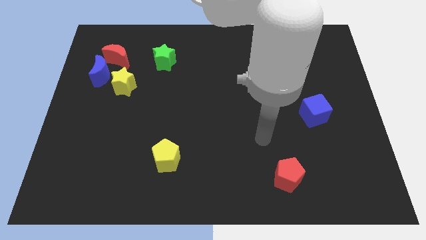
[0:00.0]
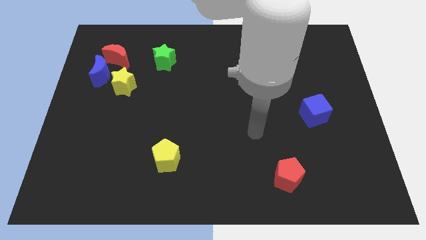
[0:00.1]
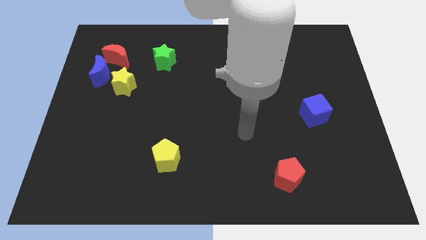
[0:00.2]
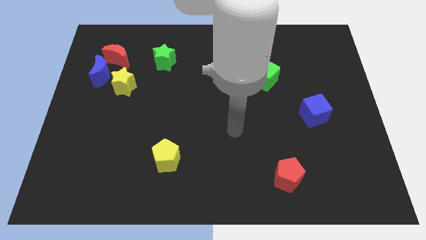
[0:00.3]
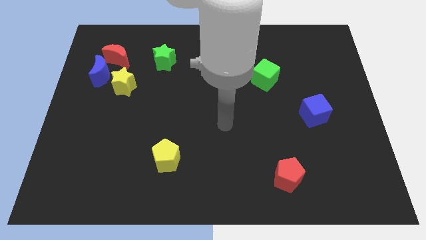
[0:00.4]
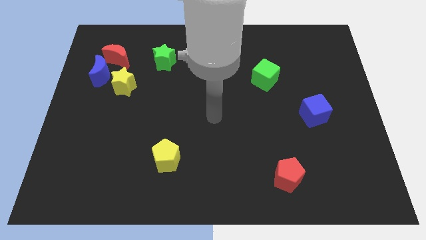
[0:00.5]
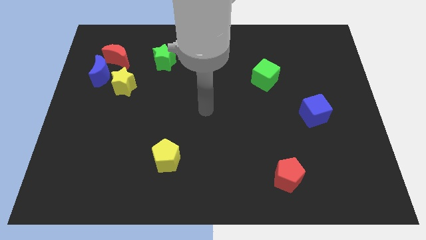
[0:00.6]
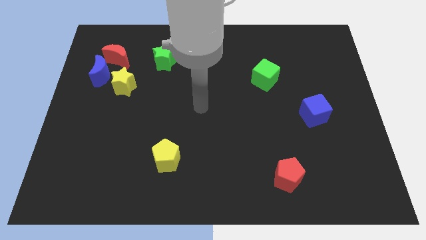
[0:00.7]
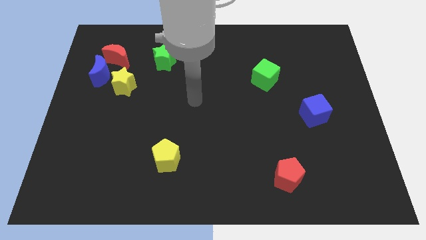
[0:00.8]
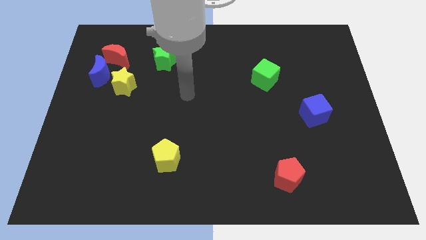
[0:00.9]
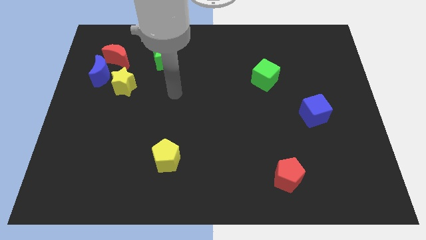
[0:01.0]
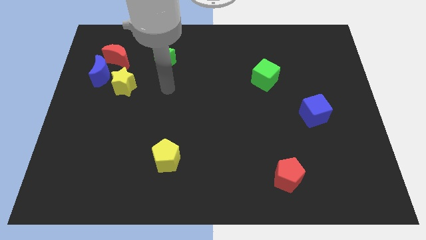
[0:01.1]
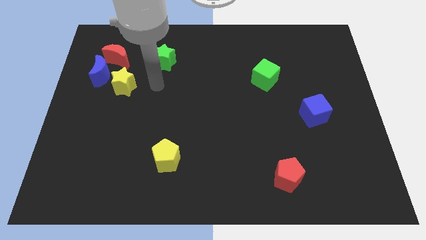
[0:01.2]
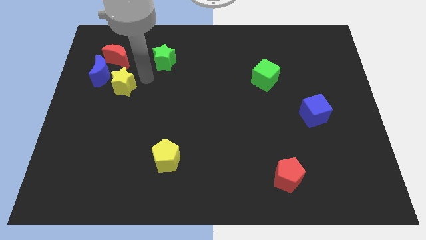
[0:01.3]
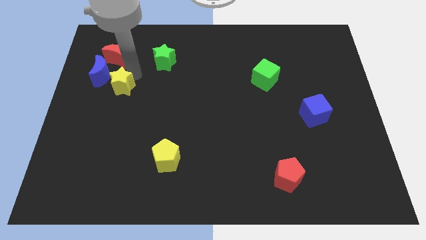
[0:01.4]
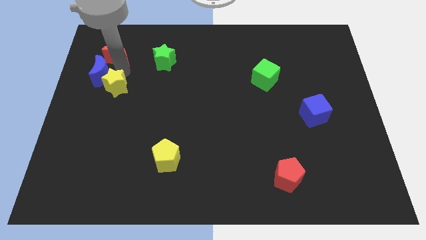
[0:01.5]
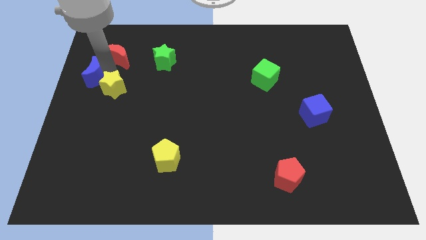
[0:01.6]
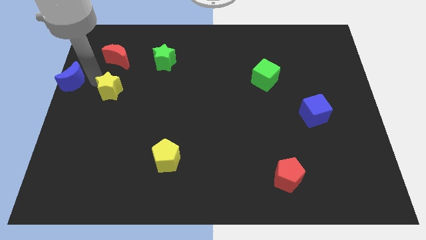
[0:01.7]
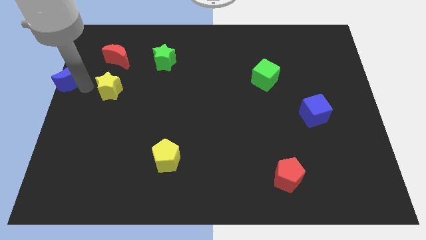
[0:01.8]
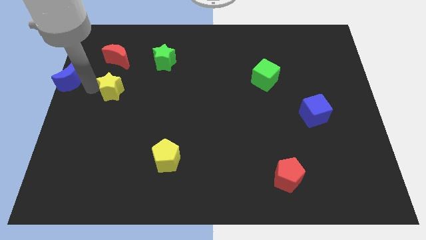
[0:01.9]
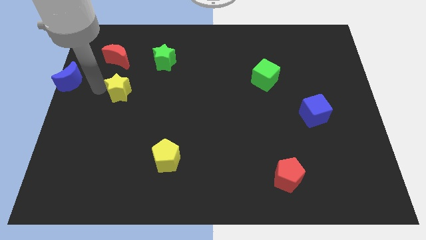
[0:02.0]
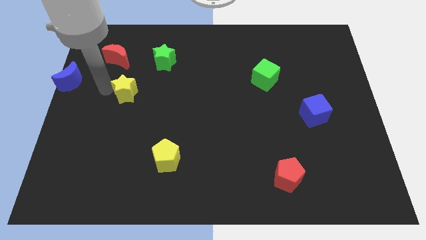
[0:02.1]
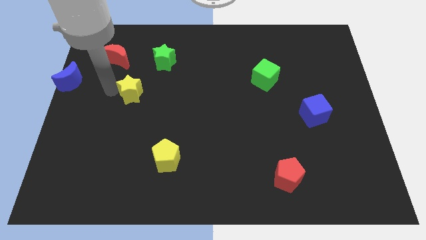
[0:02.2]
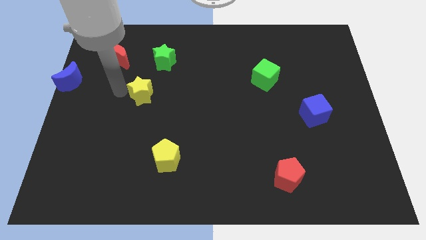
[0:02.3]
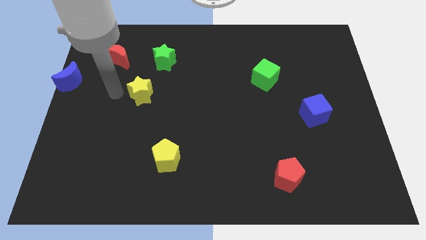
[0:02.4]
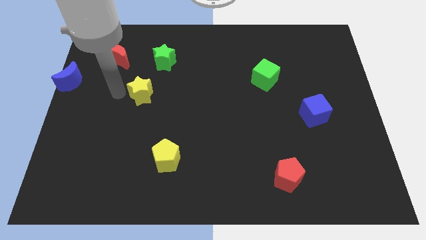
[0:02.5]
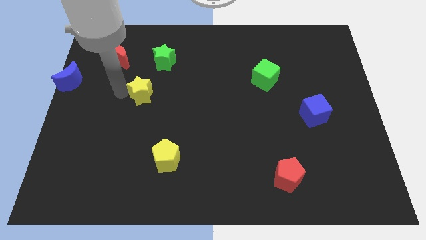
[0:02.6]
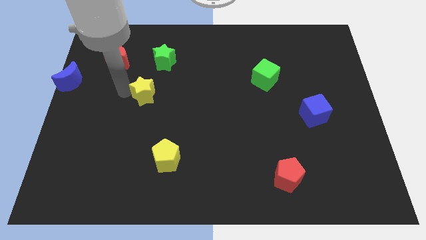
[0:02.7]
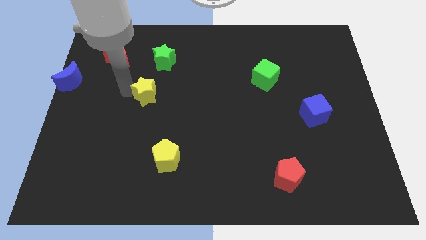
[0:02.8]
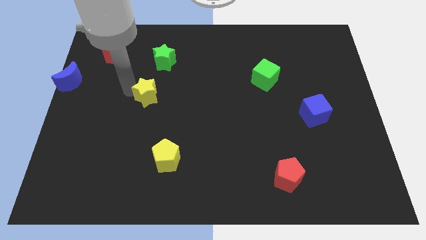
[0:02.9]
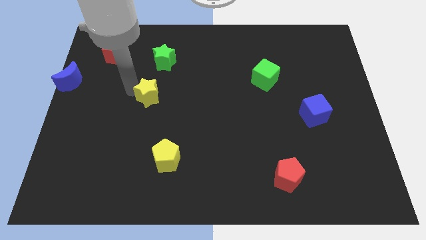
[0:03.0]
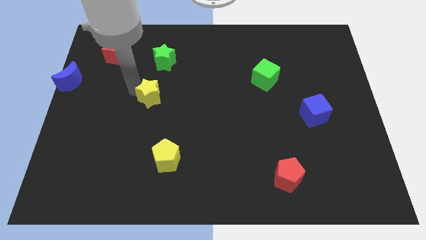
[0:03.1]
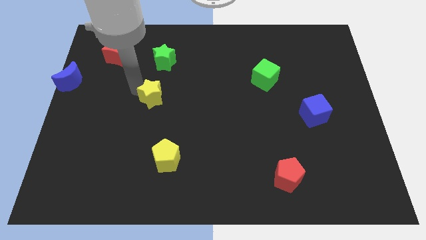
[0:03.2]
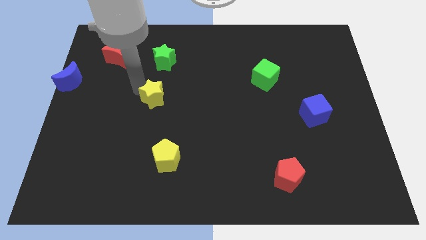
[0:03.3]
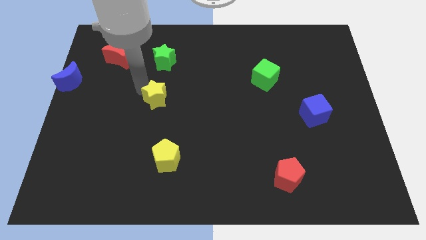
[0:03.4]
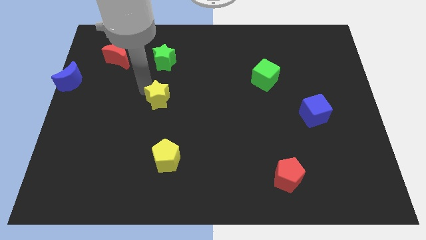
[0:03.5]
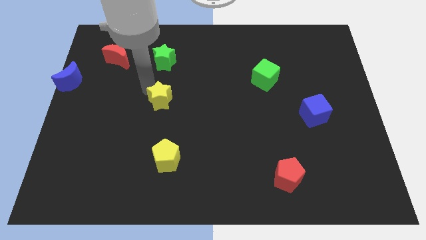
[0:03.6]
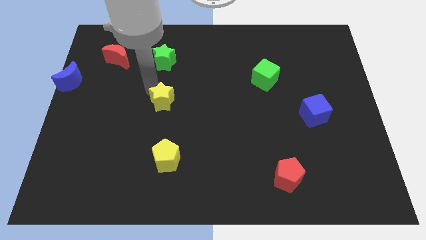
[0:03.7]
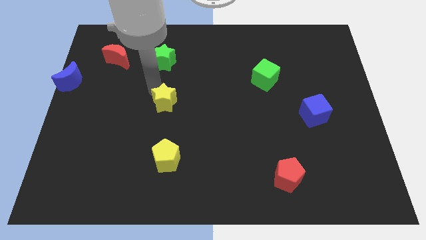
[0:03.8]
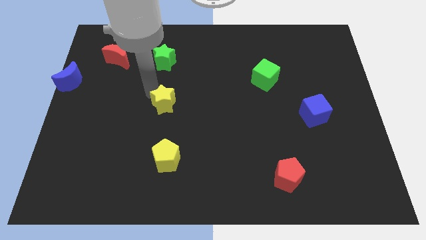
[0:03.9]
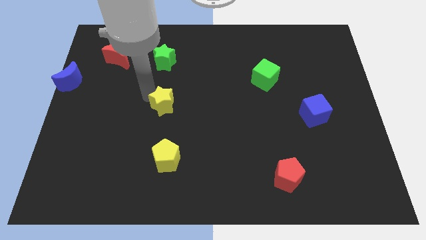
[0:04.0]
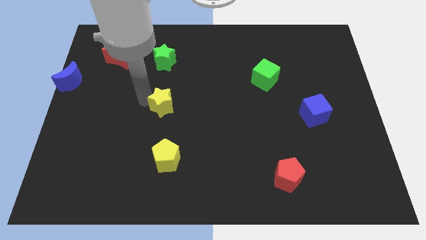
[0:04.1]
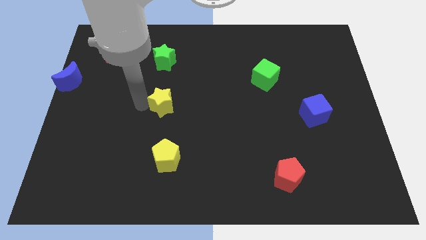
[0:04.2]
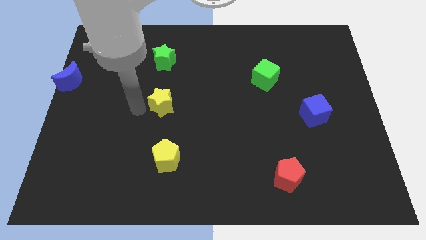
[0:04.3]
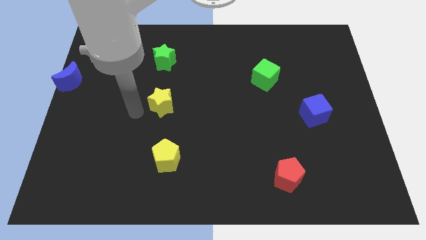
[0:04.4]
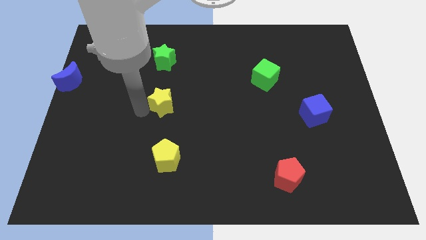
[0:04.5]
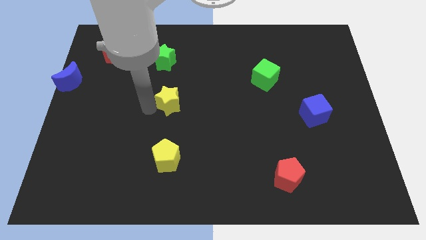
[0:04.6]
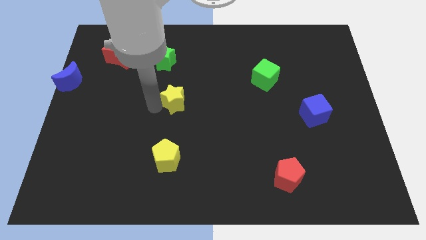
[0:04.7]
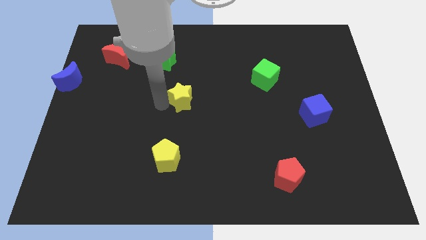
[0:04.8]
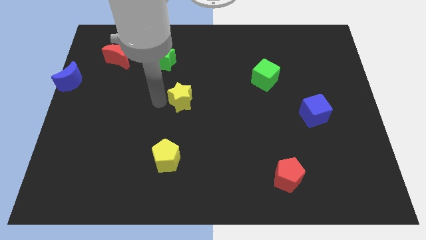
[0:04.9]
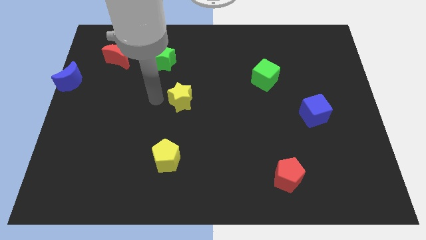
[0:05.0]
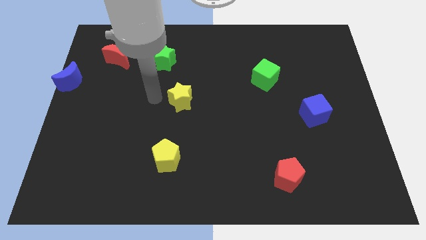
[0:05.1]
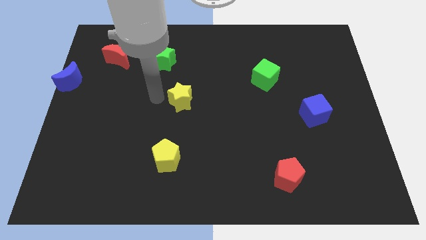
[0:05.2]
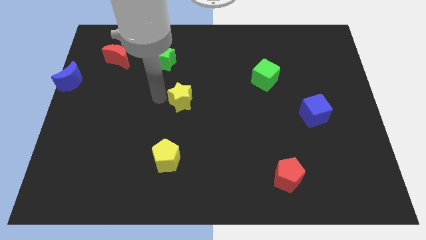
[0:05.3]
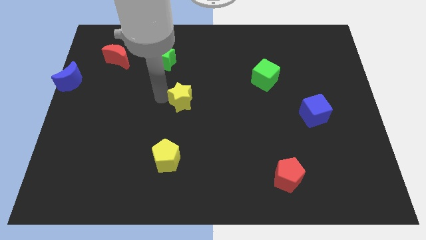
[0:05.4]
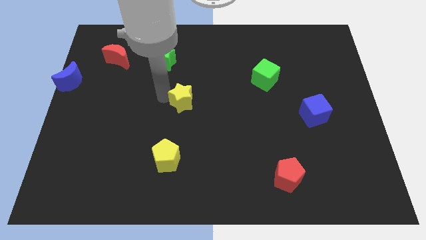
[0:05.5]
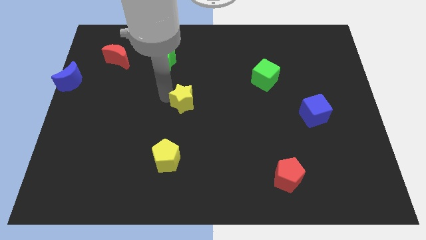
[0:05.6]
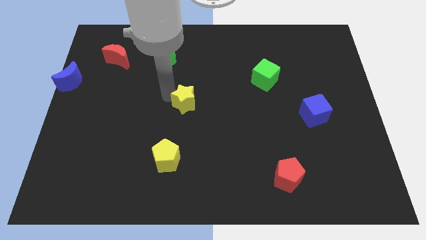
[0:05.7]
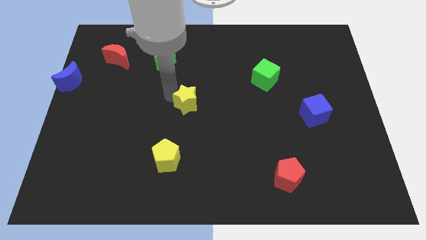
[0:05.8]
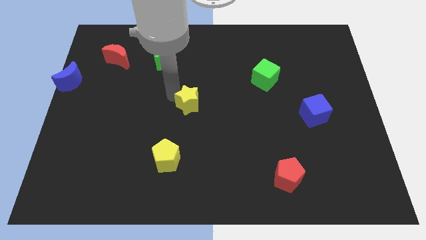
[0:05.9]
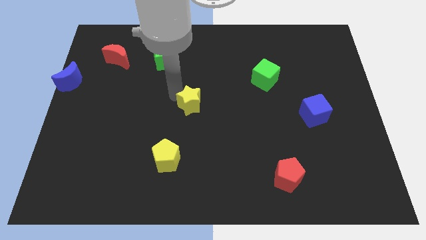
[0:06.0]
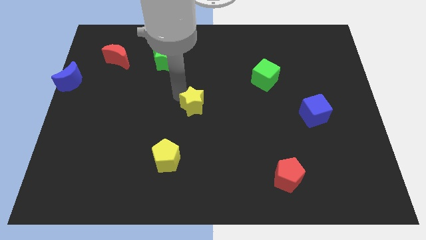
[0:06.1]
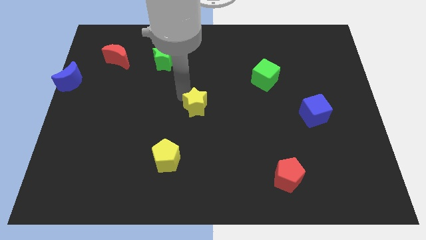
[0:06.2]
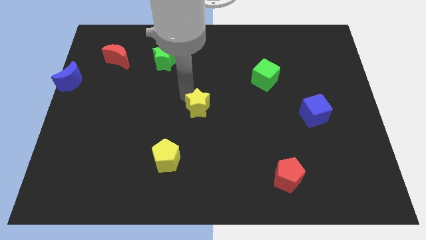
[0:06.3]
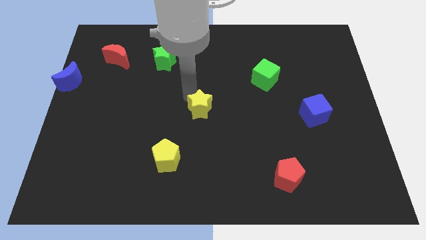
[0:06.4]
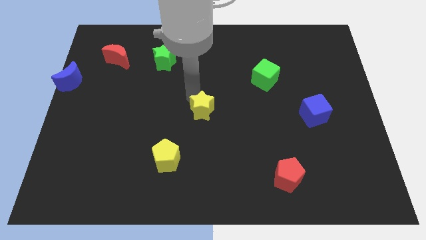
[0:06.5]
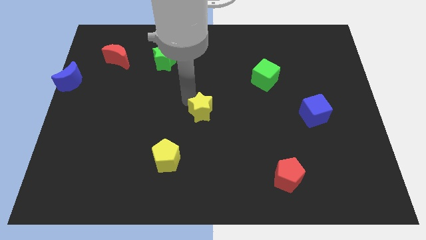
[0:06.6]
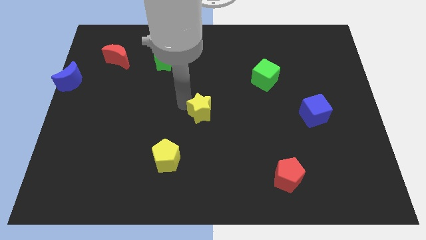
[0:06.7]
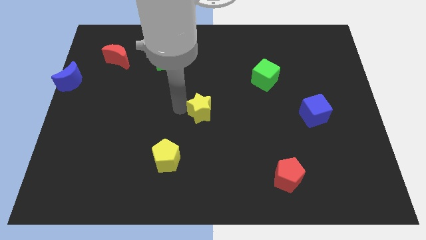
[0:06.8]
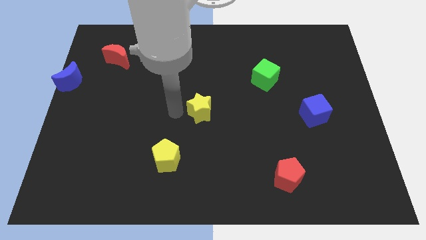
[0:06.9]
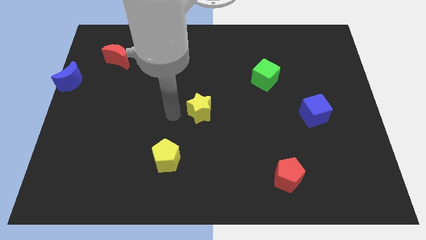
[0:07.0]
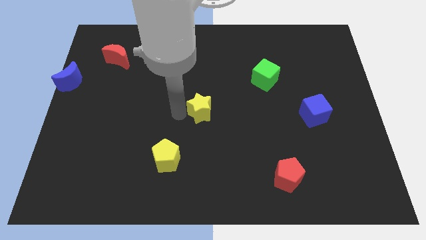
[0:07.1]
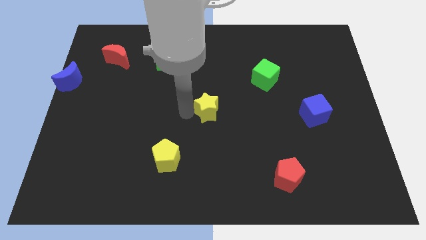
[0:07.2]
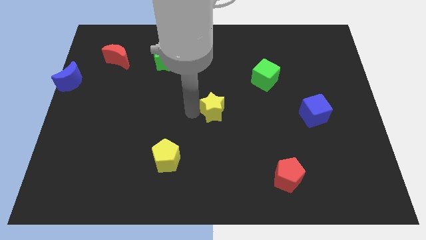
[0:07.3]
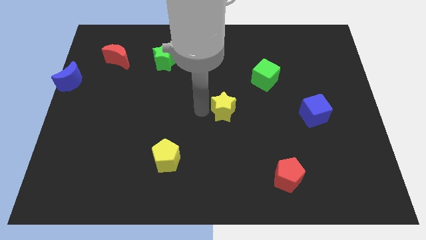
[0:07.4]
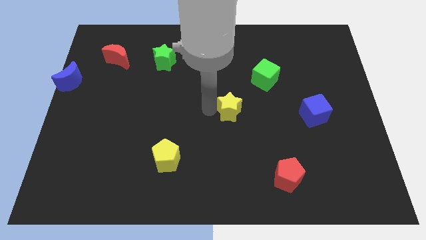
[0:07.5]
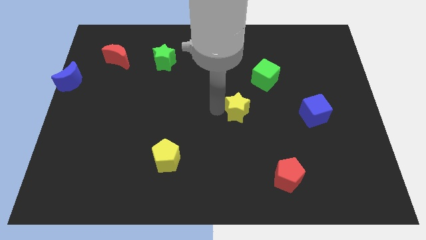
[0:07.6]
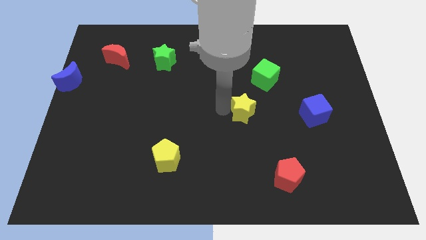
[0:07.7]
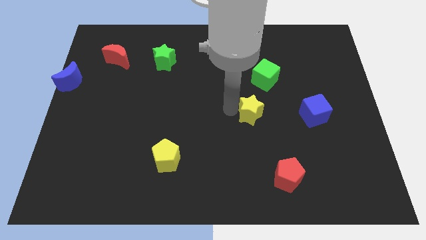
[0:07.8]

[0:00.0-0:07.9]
move the yellow star just left of the blue cube
